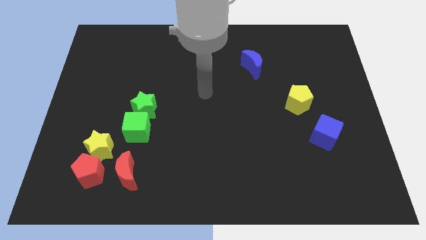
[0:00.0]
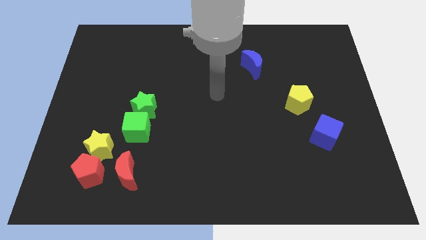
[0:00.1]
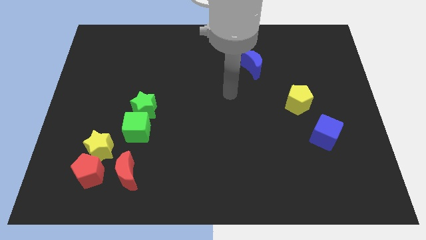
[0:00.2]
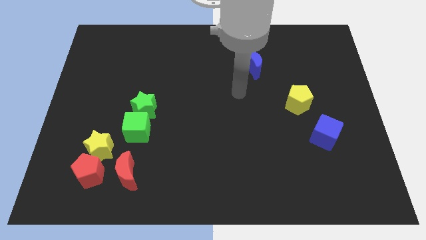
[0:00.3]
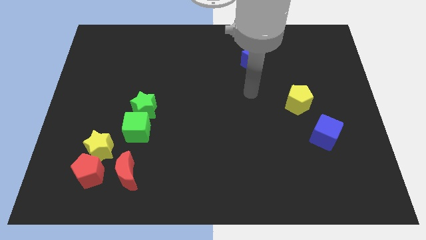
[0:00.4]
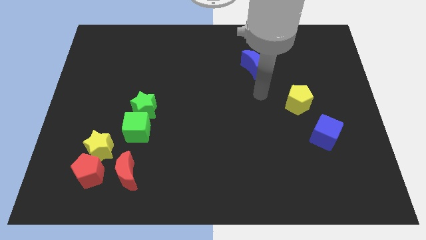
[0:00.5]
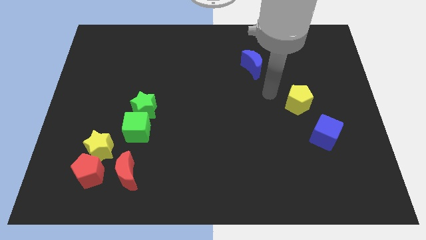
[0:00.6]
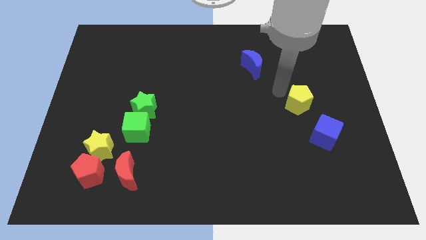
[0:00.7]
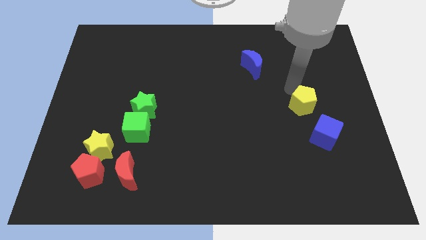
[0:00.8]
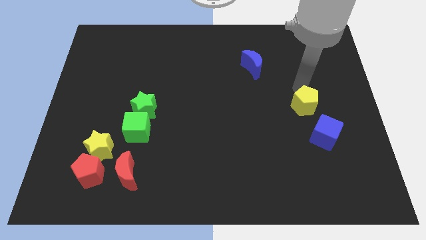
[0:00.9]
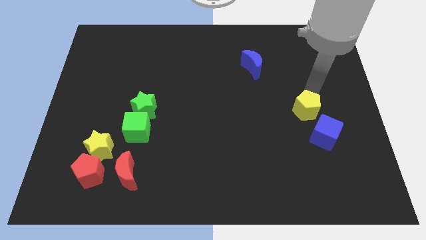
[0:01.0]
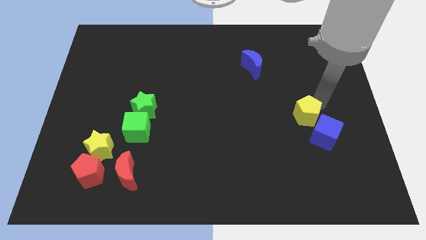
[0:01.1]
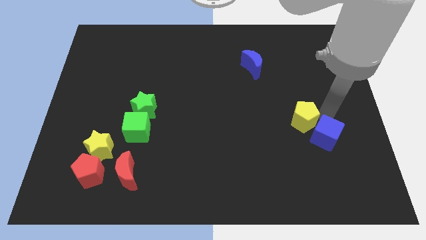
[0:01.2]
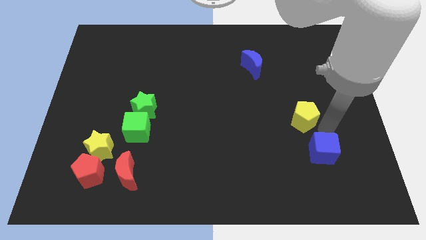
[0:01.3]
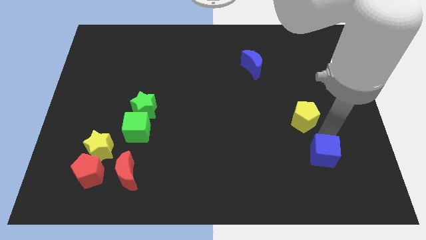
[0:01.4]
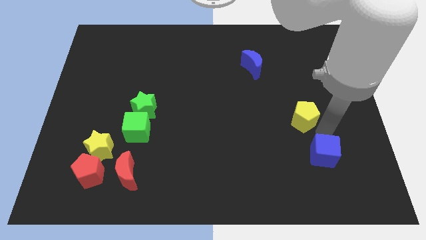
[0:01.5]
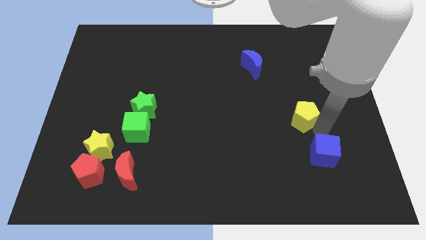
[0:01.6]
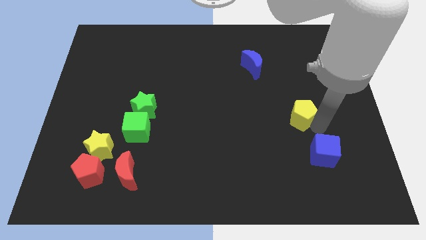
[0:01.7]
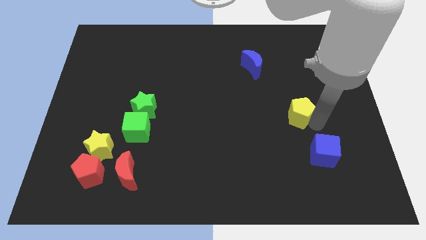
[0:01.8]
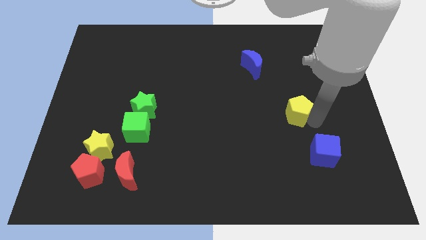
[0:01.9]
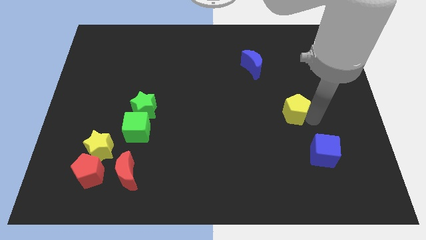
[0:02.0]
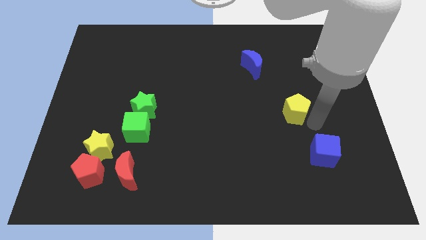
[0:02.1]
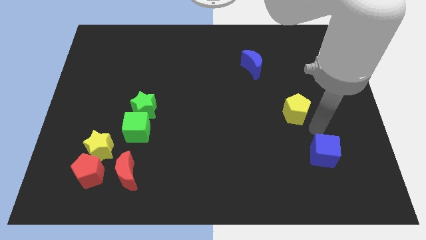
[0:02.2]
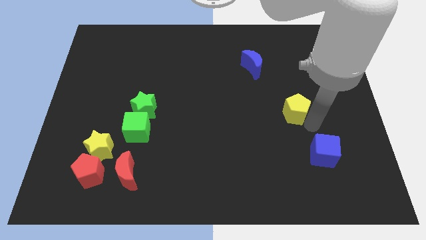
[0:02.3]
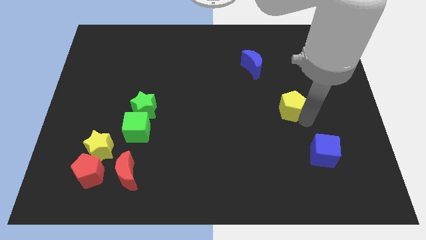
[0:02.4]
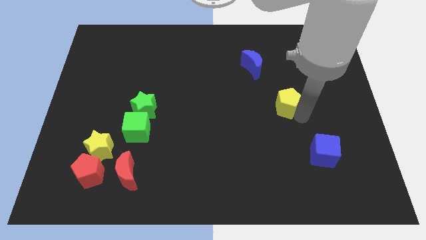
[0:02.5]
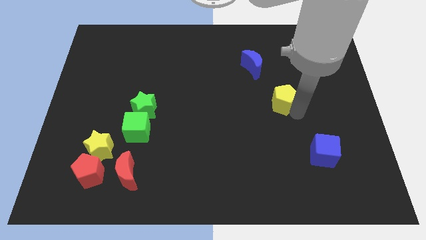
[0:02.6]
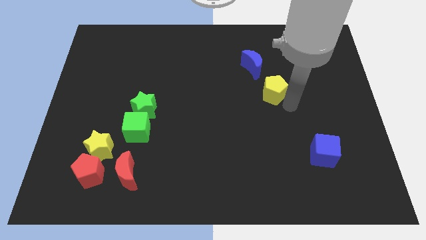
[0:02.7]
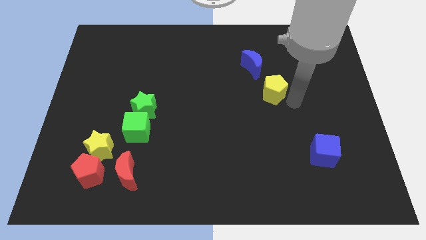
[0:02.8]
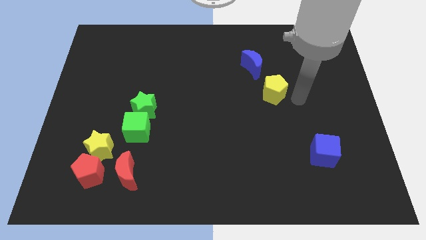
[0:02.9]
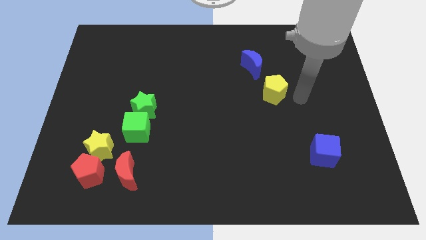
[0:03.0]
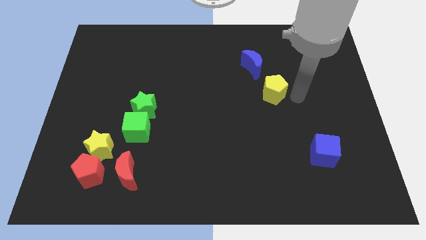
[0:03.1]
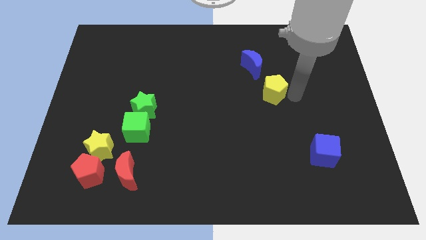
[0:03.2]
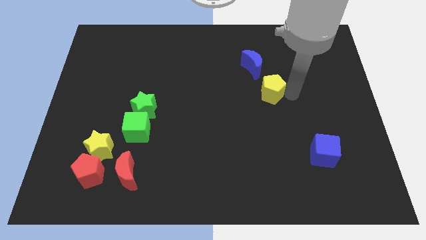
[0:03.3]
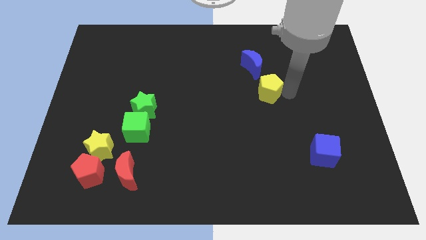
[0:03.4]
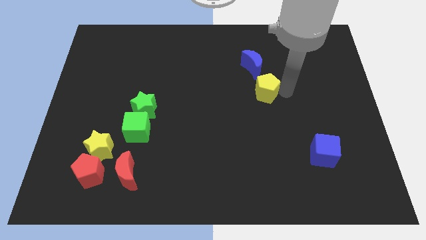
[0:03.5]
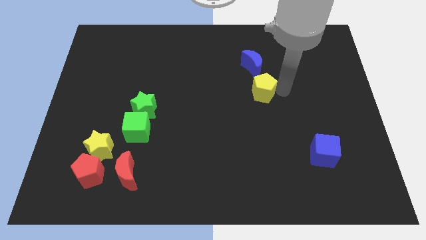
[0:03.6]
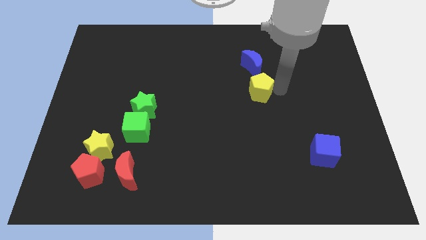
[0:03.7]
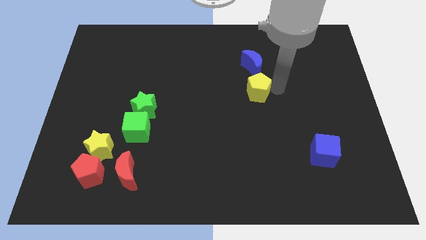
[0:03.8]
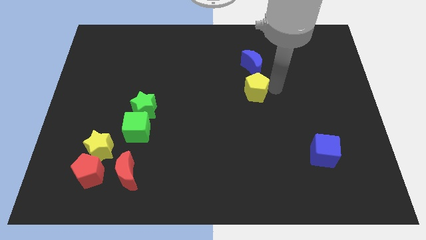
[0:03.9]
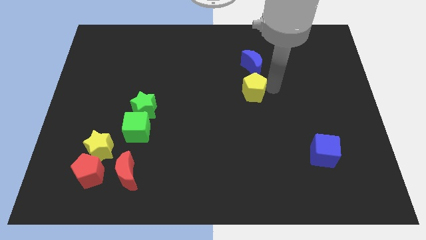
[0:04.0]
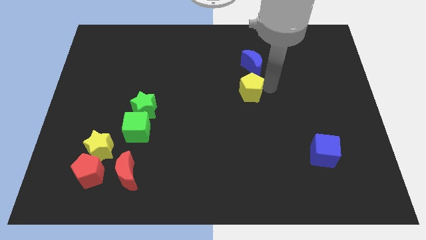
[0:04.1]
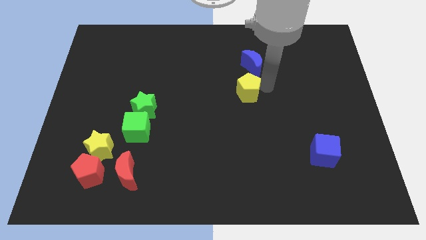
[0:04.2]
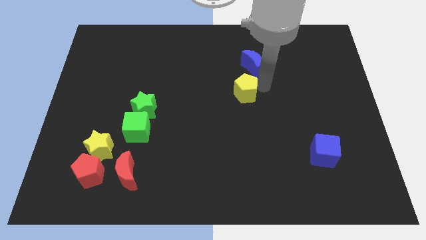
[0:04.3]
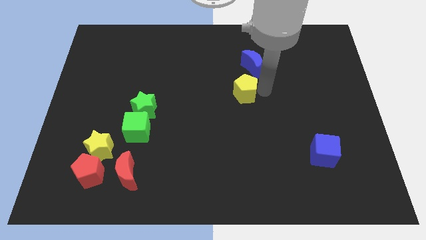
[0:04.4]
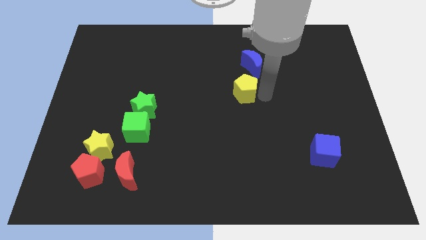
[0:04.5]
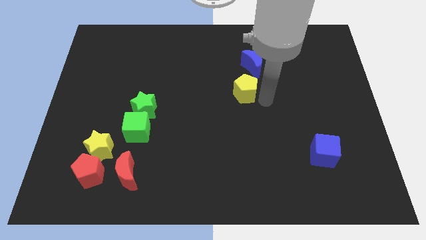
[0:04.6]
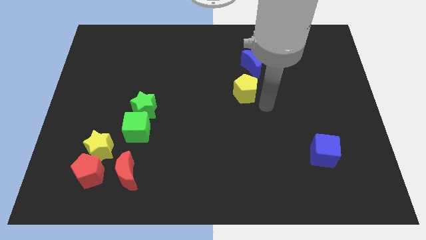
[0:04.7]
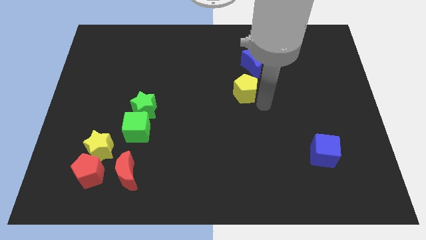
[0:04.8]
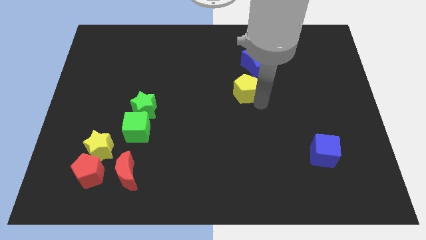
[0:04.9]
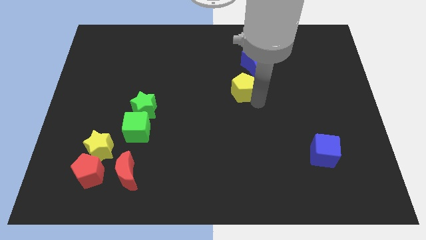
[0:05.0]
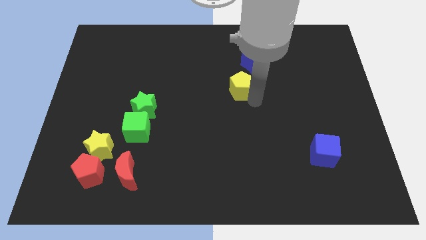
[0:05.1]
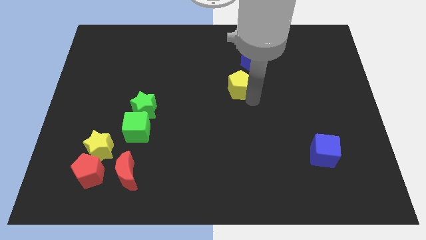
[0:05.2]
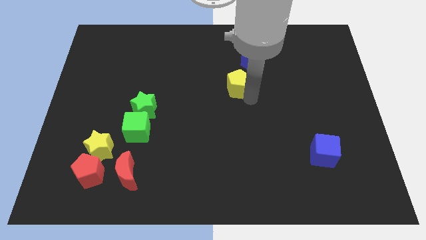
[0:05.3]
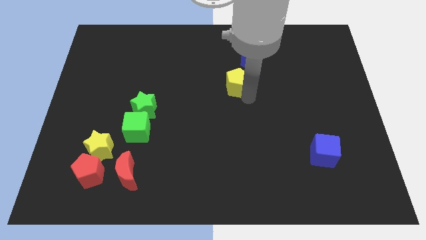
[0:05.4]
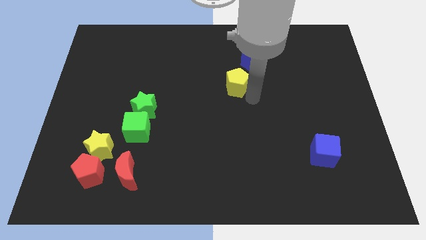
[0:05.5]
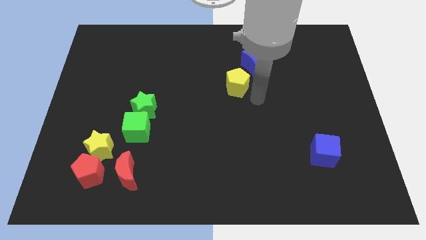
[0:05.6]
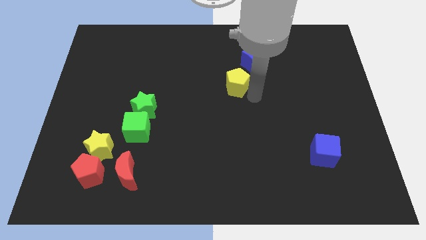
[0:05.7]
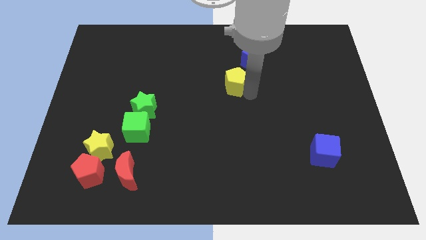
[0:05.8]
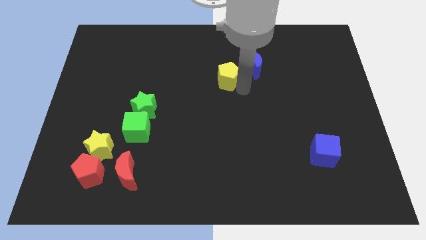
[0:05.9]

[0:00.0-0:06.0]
put the yellow pentagon left of the blue moon
